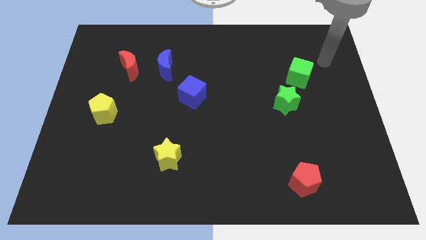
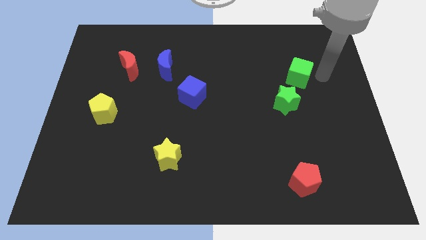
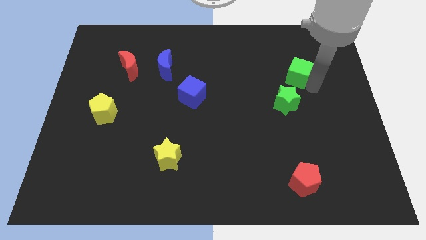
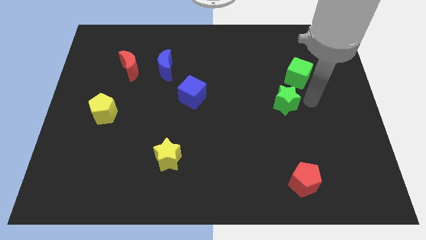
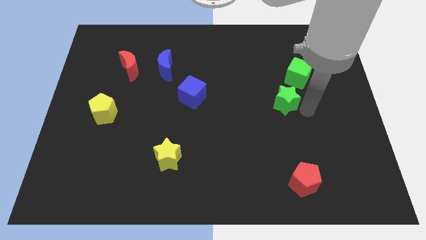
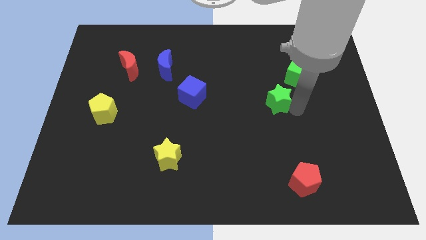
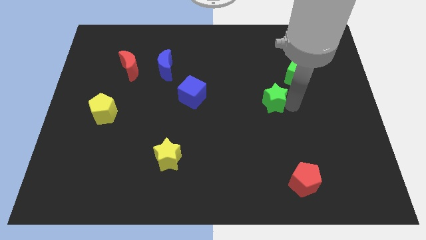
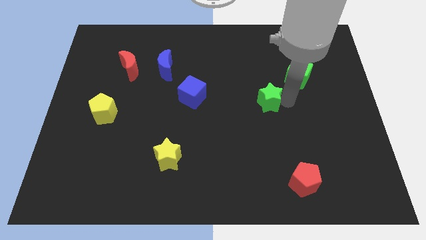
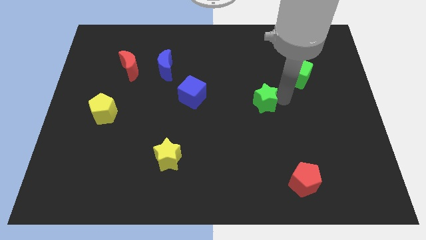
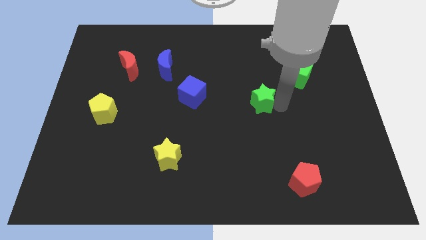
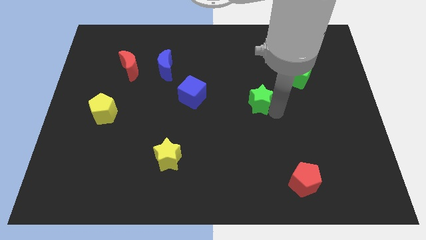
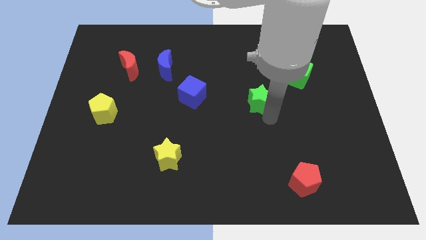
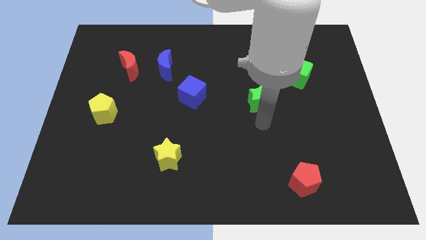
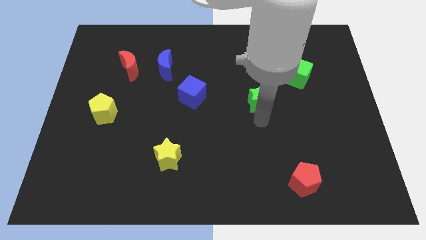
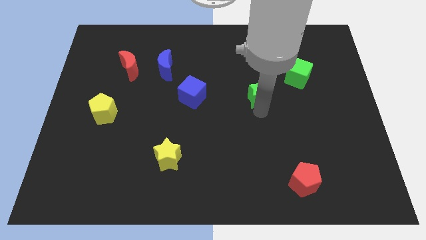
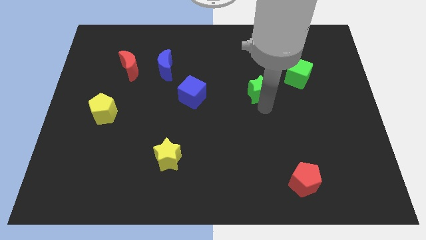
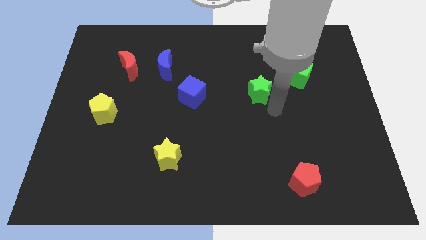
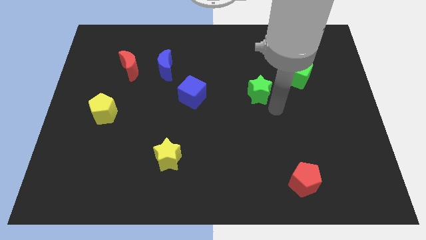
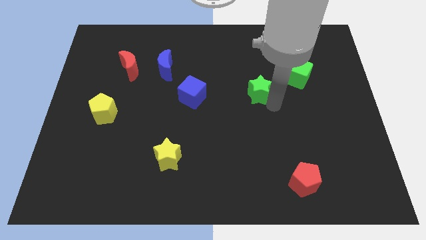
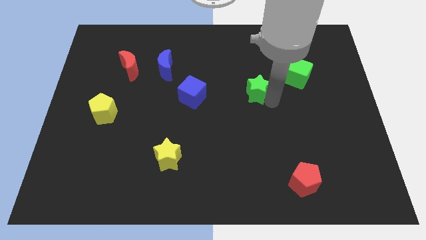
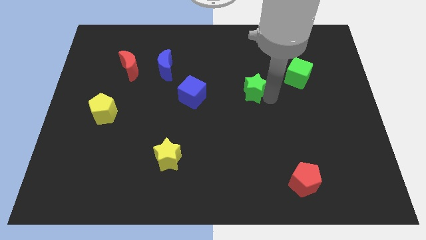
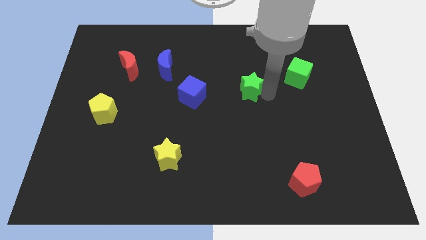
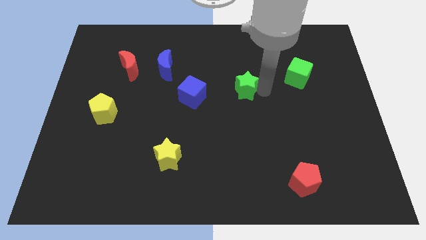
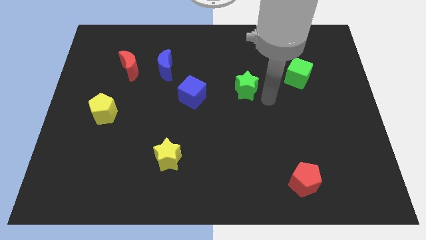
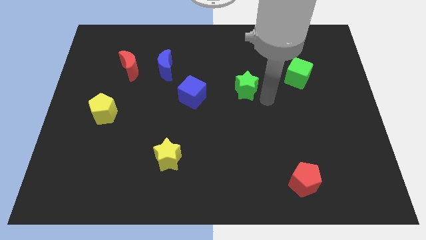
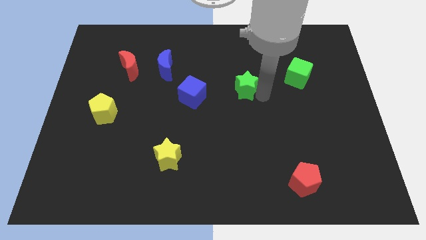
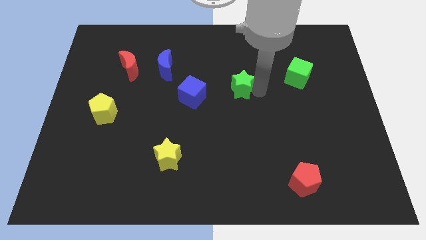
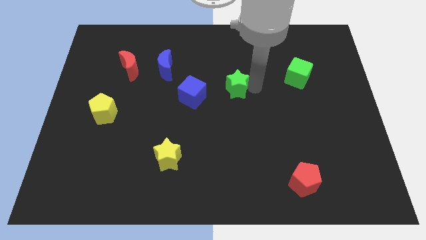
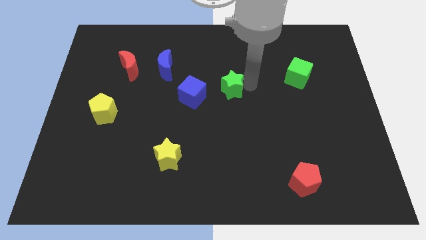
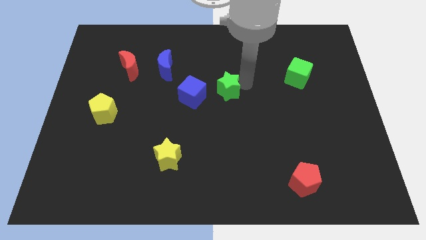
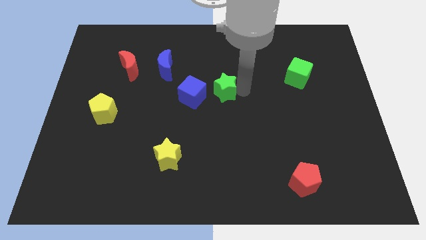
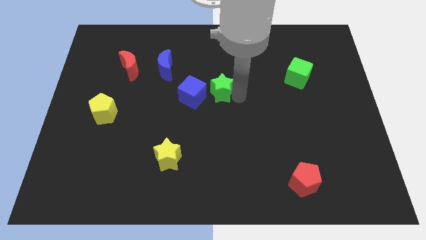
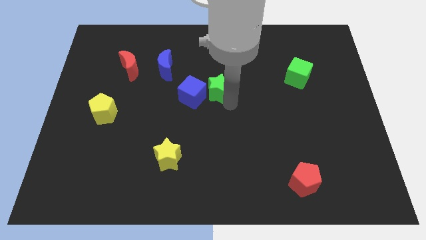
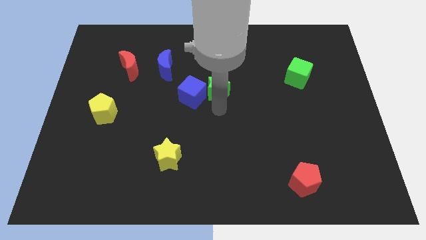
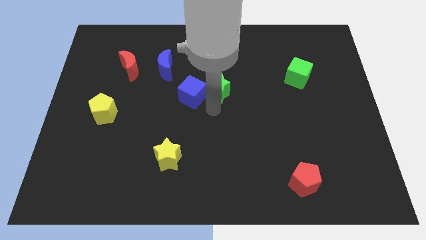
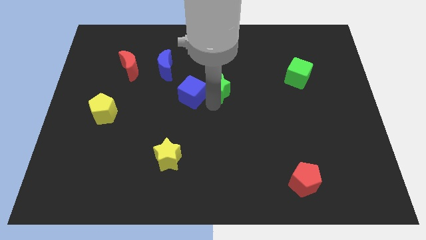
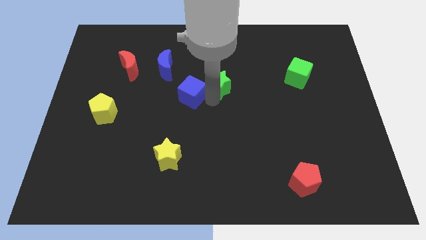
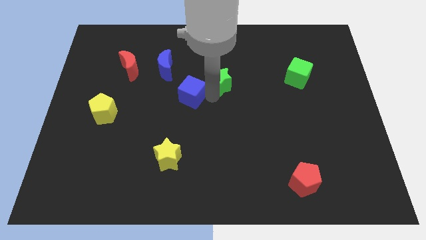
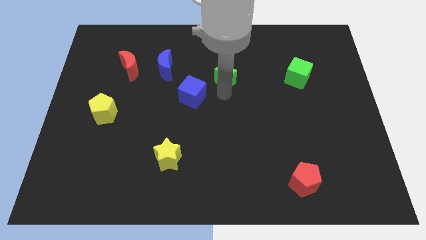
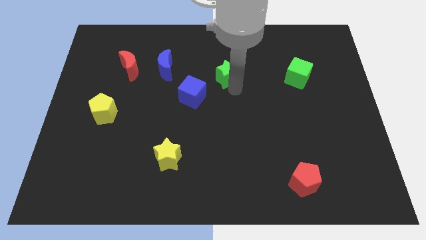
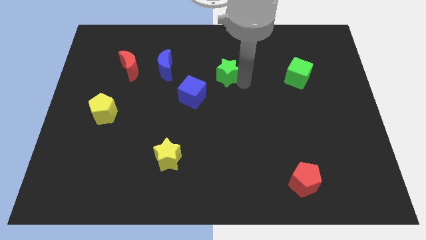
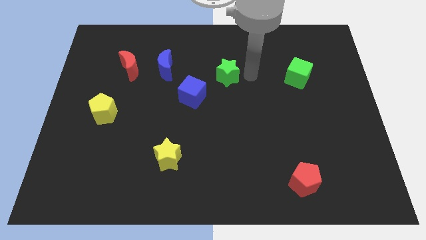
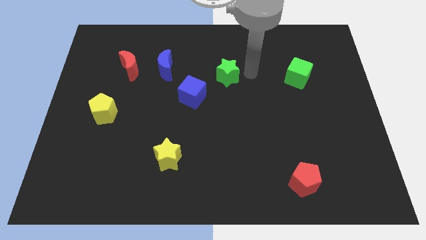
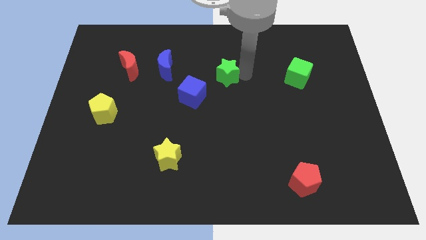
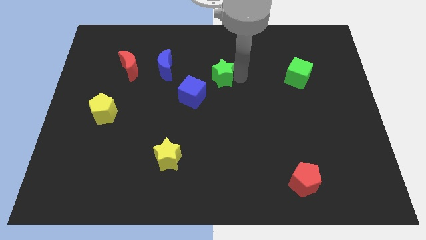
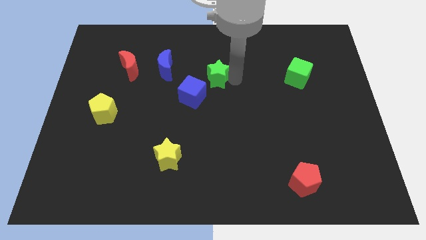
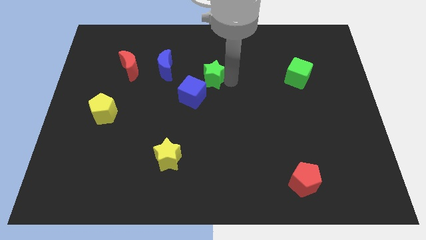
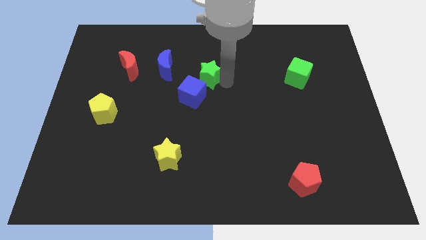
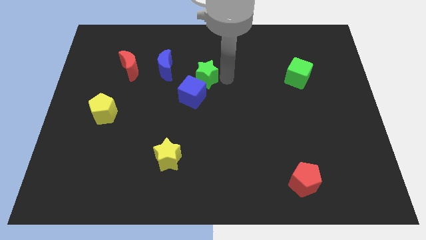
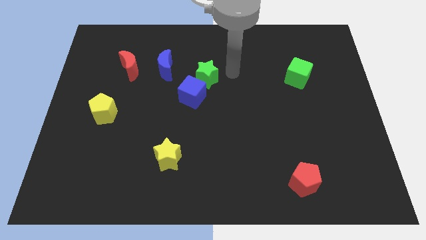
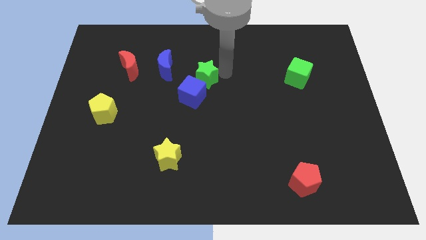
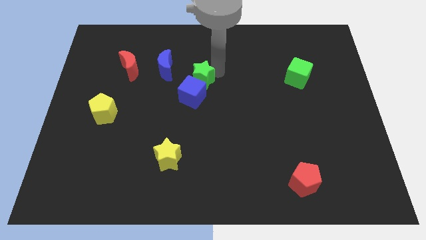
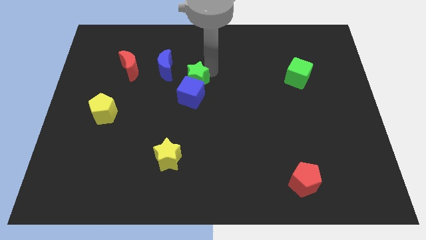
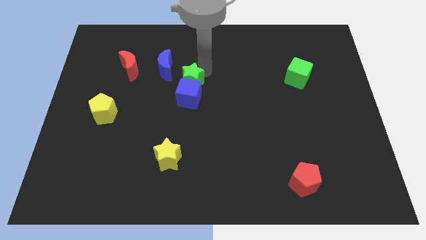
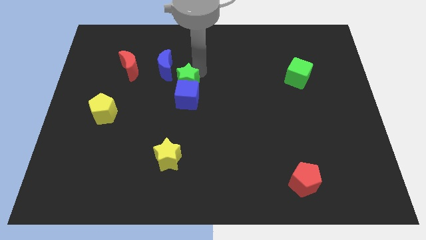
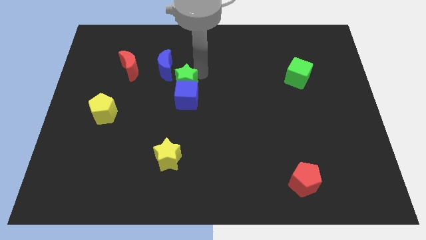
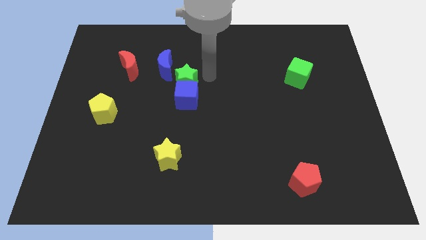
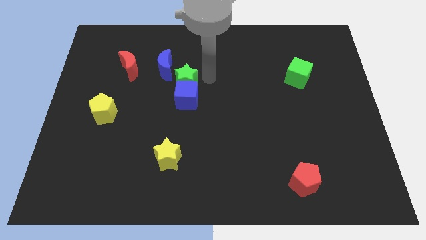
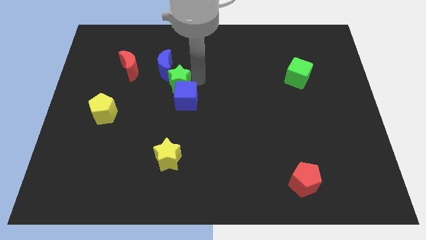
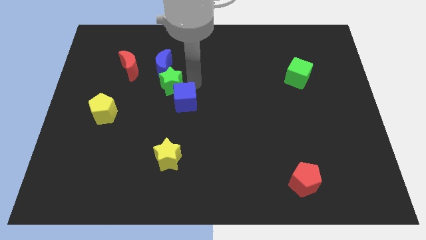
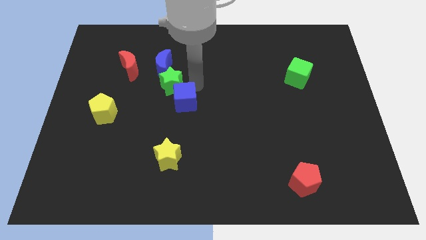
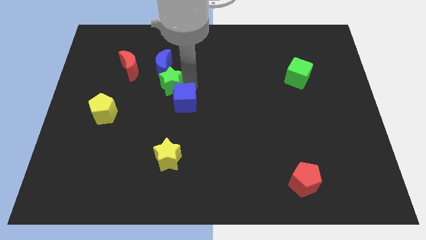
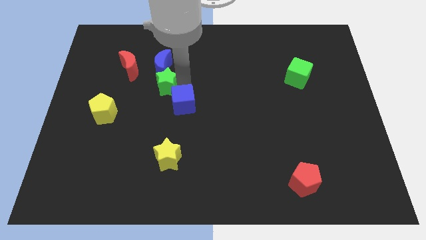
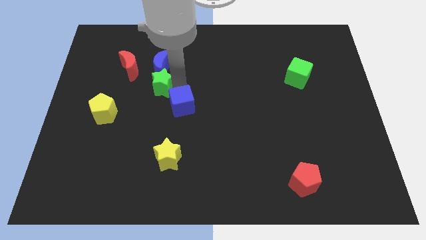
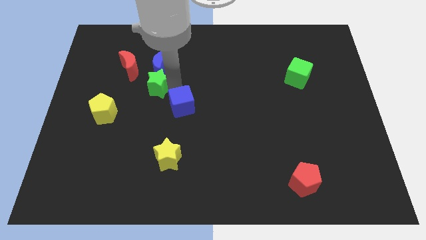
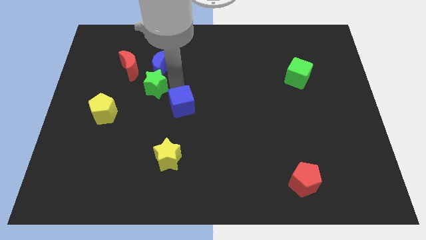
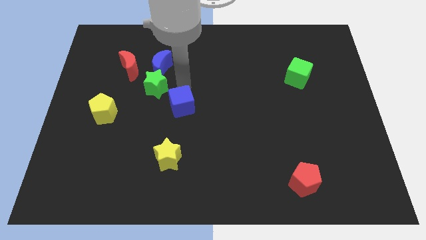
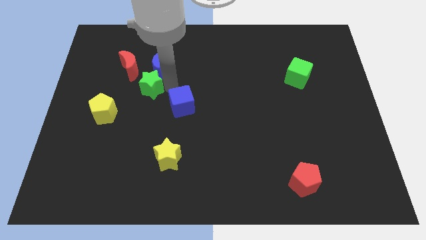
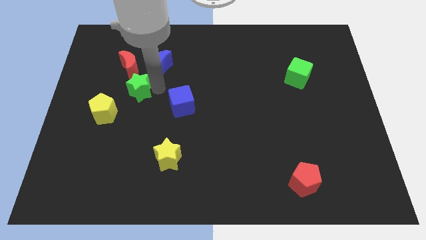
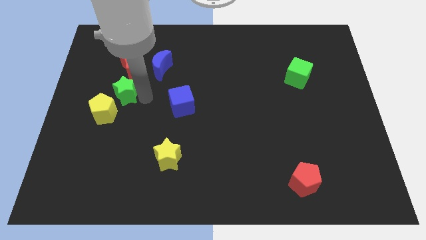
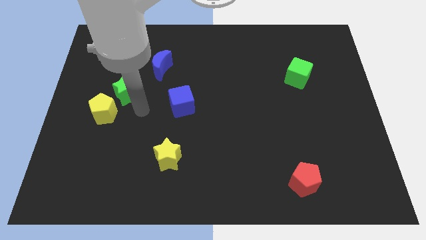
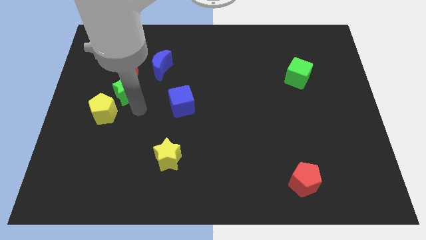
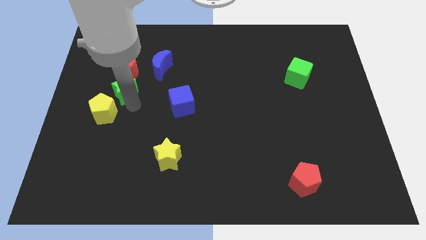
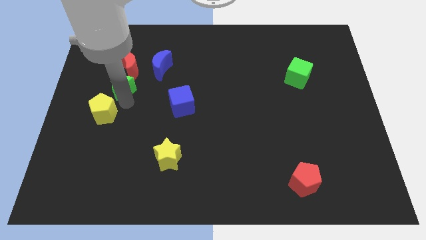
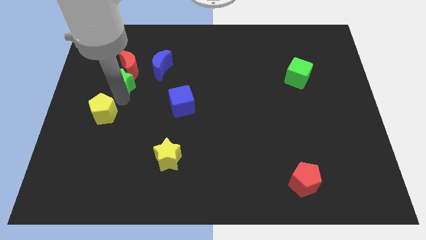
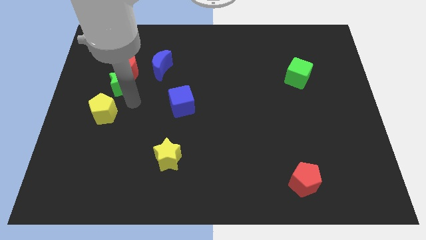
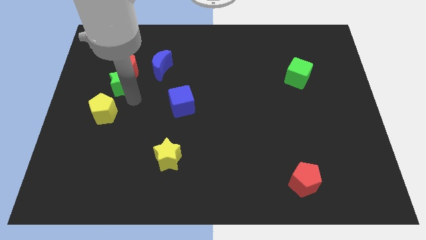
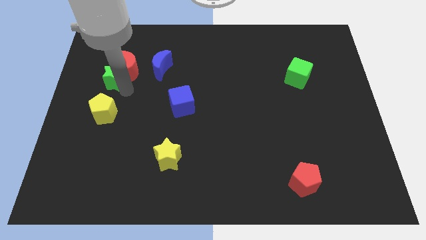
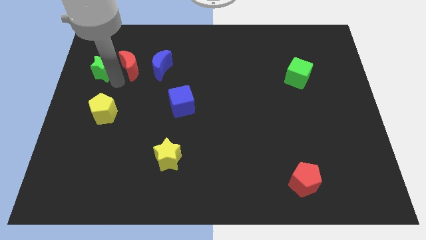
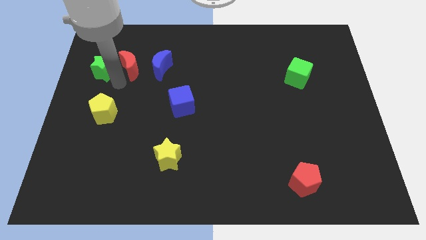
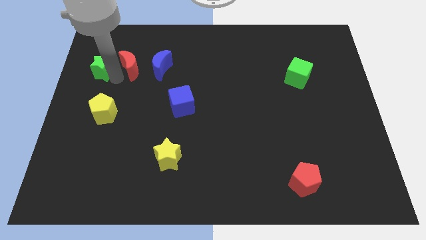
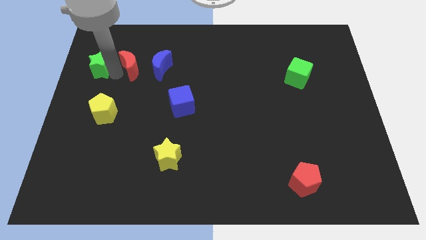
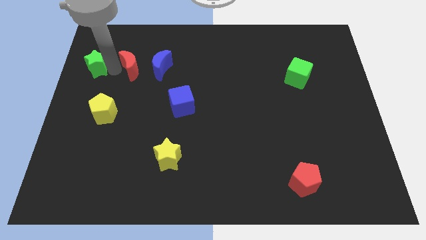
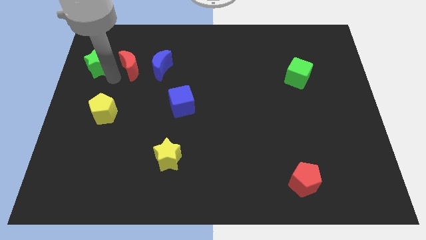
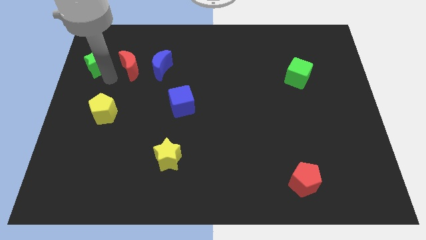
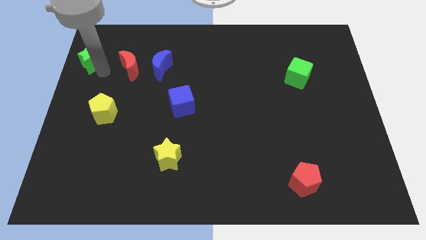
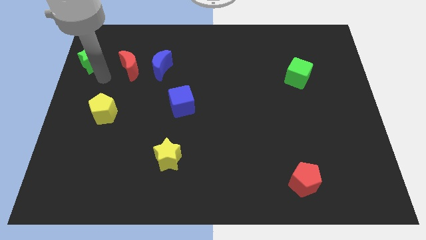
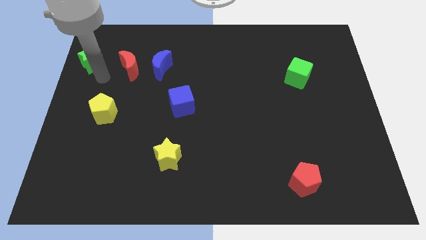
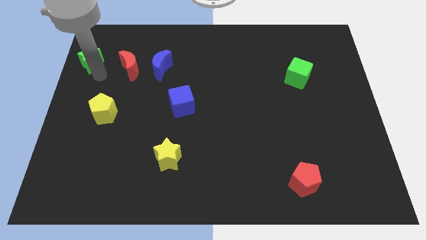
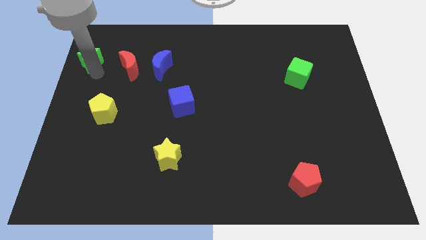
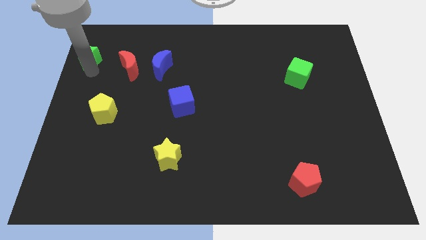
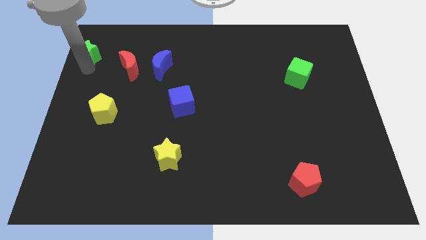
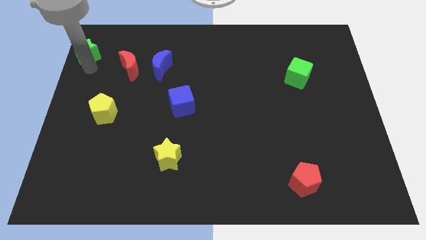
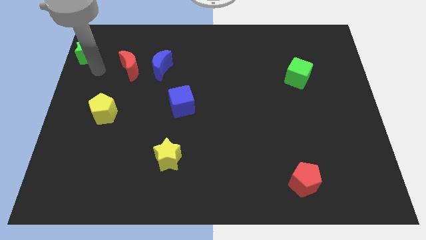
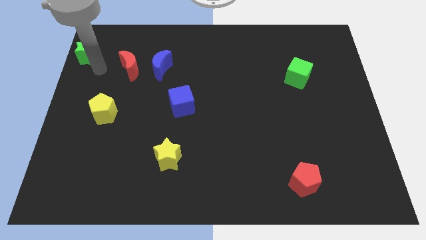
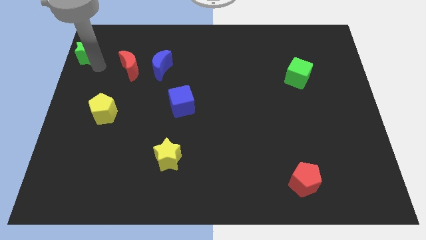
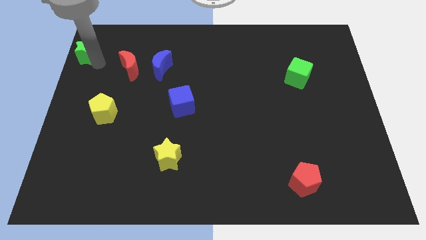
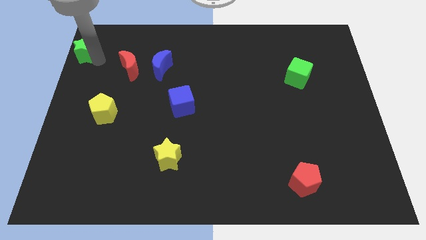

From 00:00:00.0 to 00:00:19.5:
put the green star to the top left of the board
